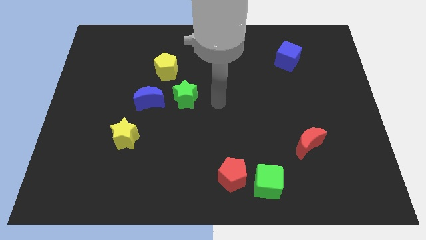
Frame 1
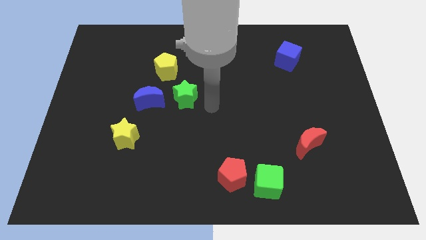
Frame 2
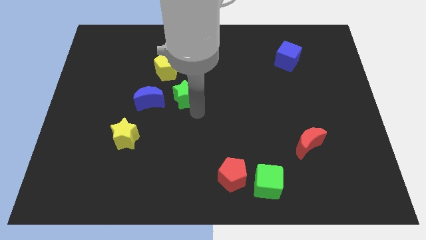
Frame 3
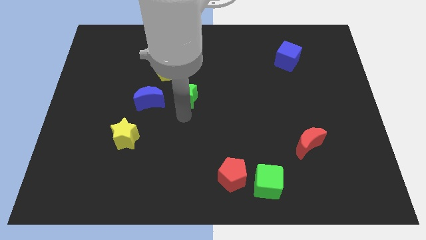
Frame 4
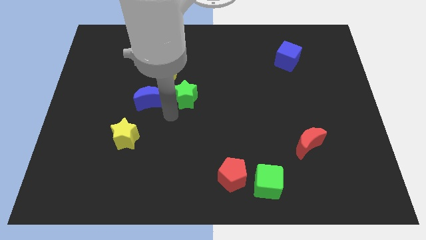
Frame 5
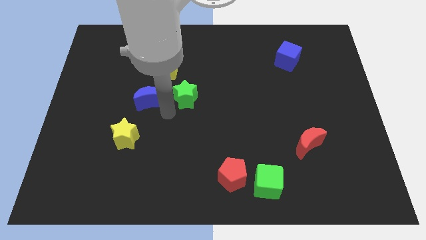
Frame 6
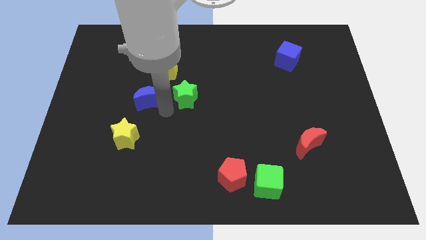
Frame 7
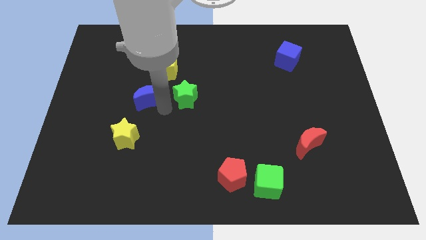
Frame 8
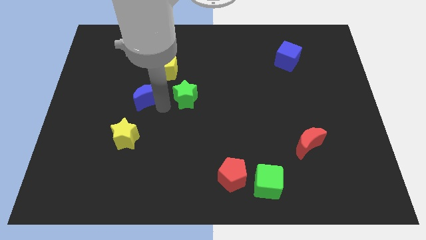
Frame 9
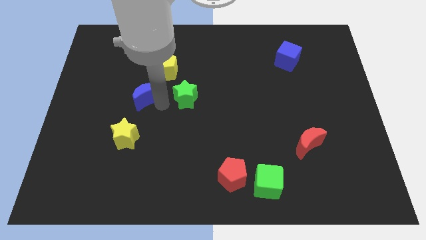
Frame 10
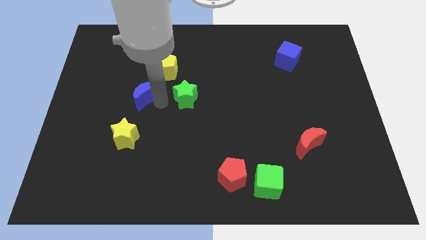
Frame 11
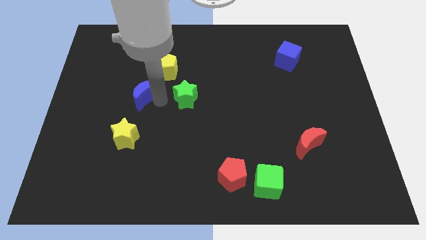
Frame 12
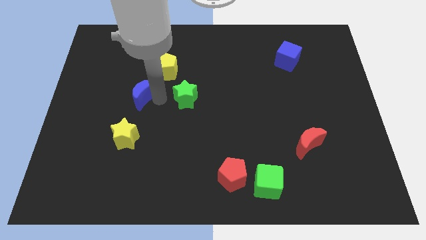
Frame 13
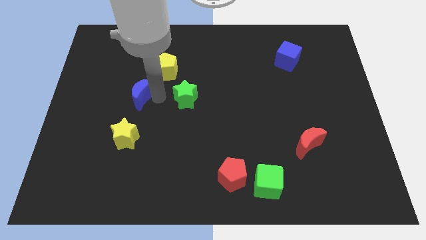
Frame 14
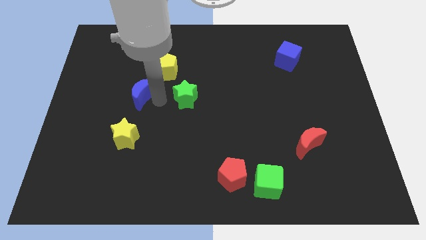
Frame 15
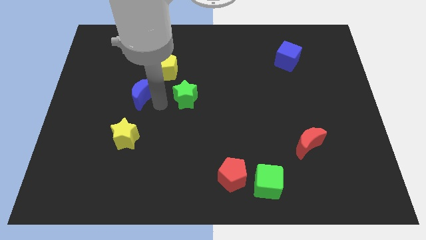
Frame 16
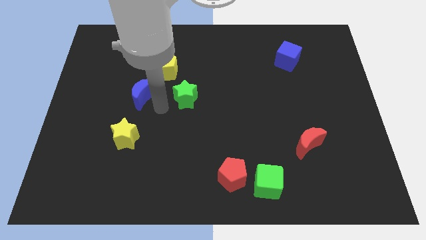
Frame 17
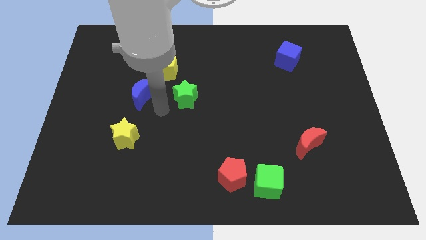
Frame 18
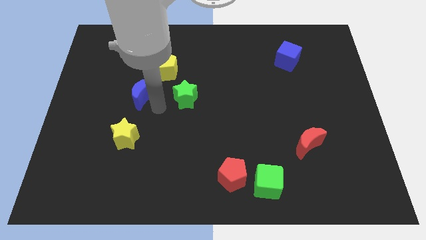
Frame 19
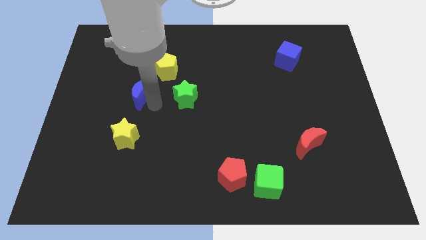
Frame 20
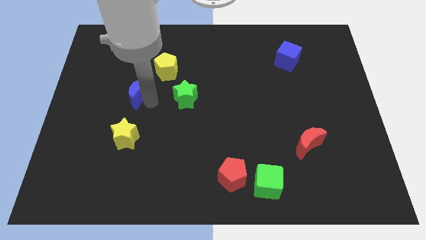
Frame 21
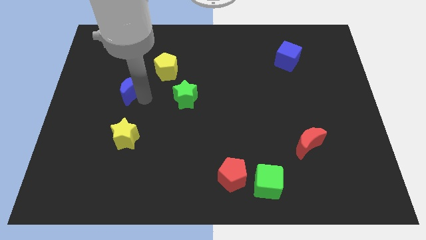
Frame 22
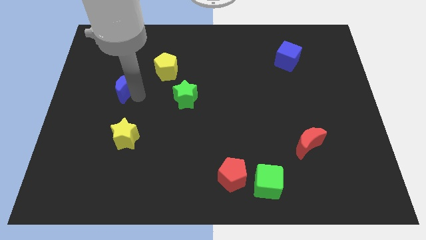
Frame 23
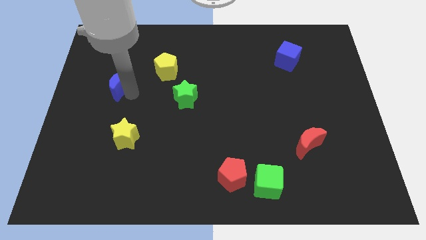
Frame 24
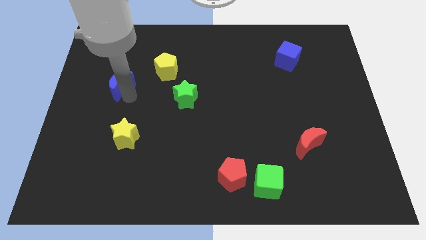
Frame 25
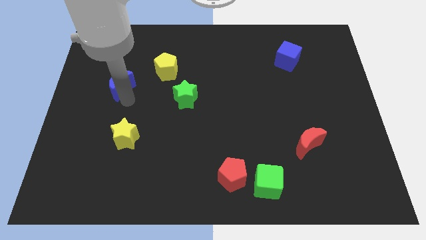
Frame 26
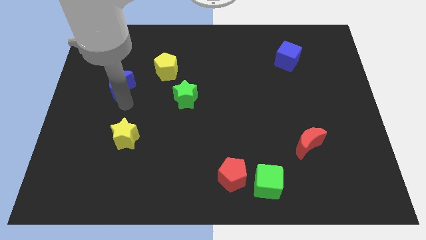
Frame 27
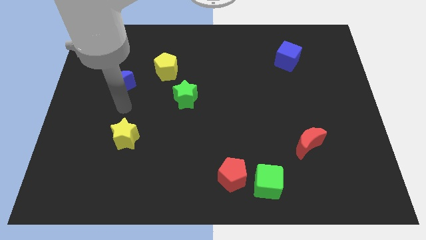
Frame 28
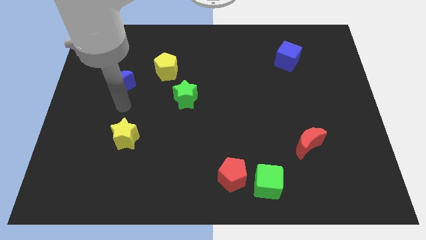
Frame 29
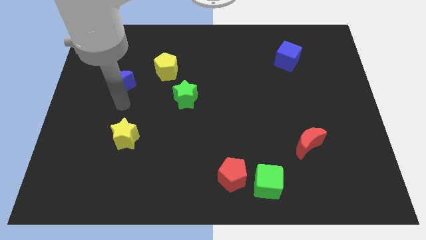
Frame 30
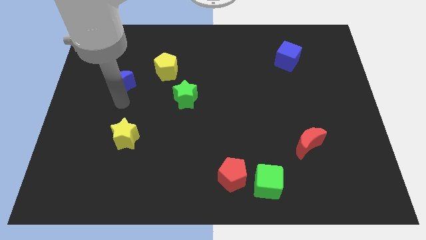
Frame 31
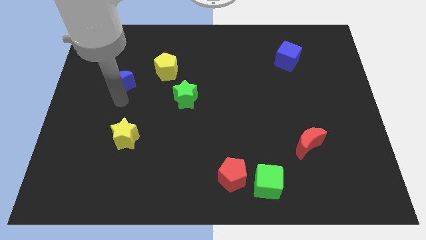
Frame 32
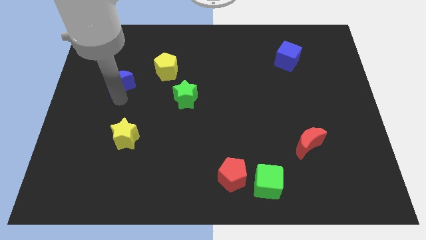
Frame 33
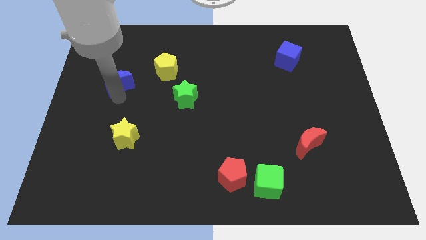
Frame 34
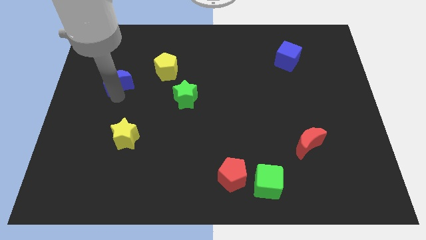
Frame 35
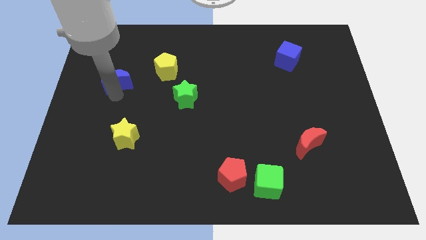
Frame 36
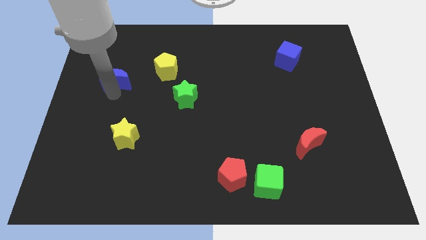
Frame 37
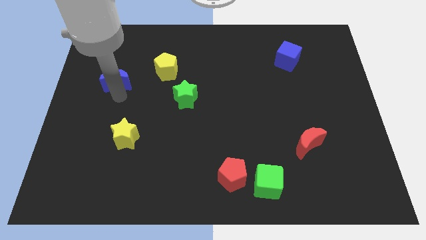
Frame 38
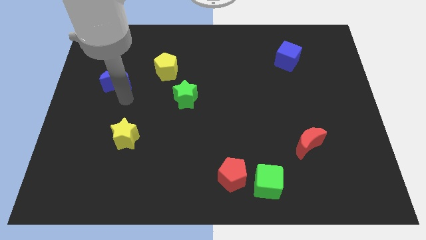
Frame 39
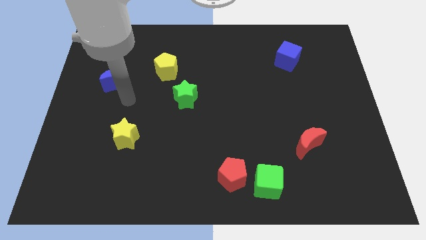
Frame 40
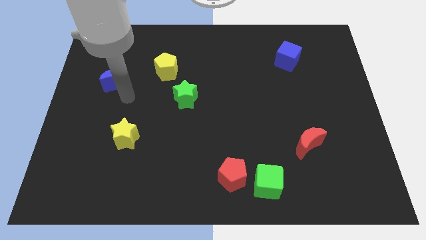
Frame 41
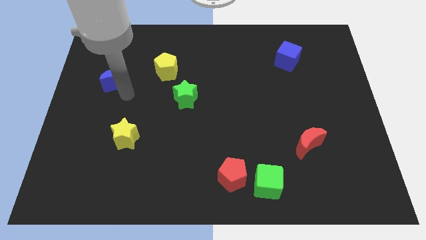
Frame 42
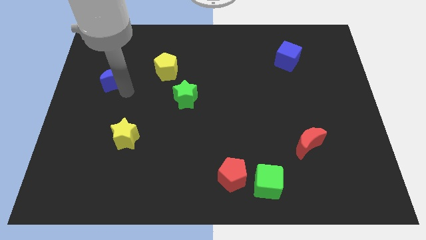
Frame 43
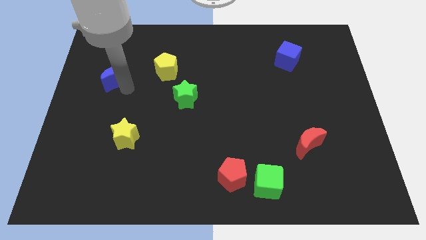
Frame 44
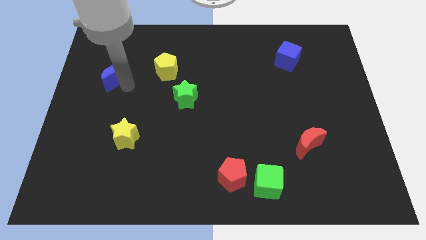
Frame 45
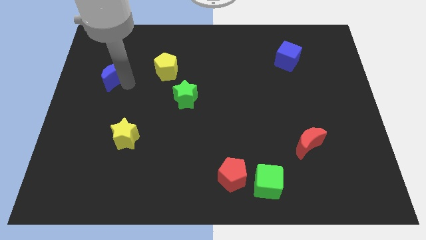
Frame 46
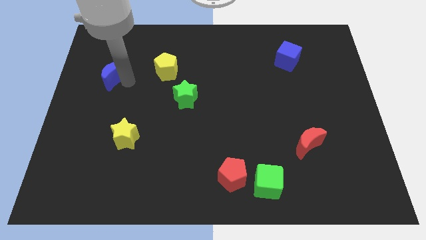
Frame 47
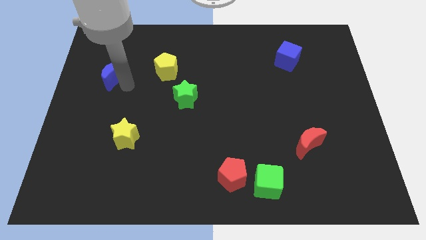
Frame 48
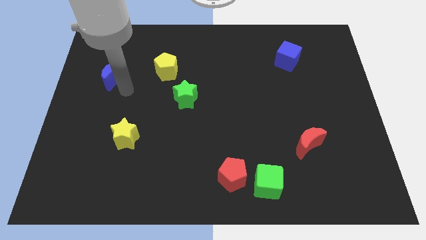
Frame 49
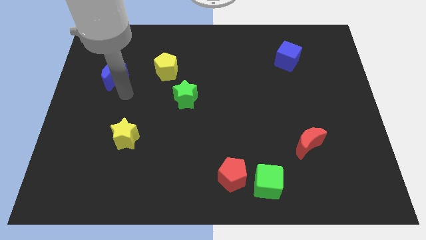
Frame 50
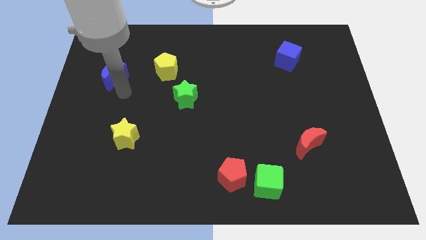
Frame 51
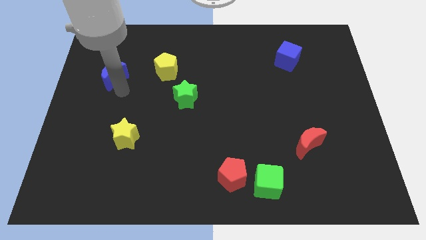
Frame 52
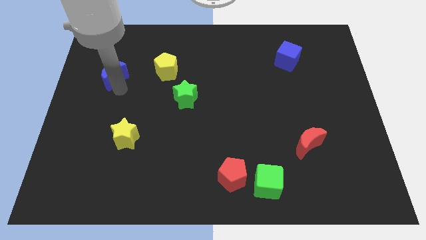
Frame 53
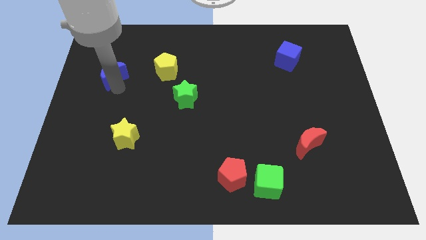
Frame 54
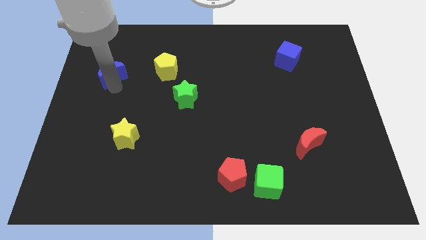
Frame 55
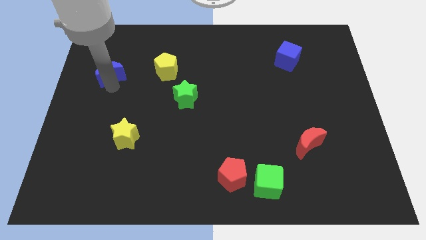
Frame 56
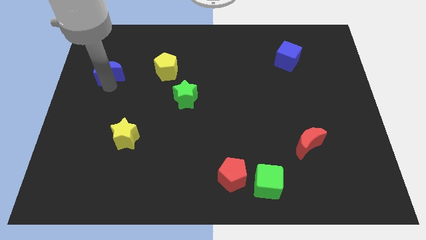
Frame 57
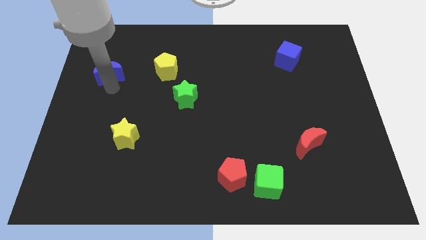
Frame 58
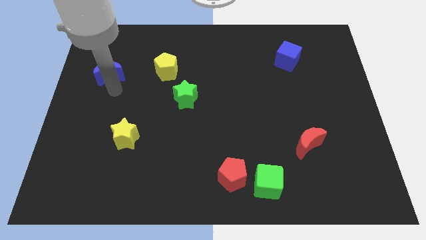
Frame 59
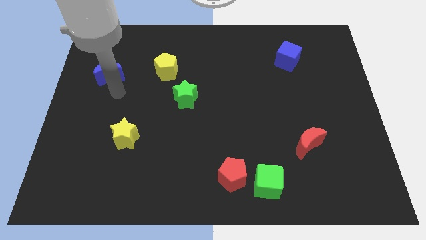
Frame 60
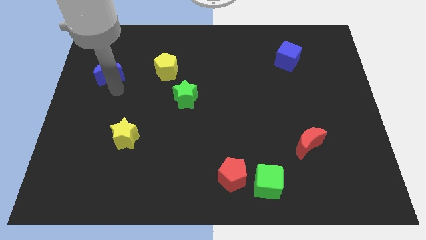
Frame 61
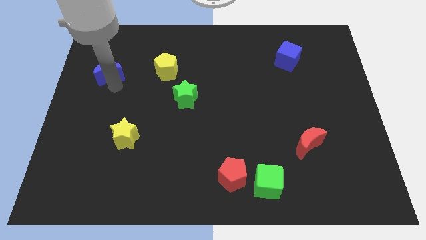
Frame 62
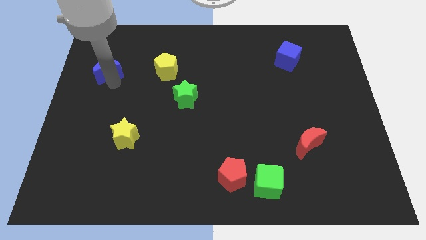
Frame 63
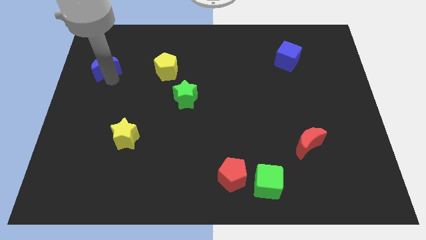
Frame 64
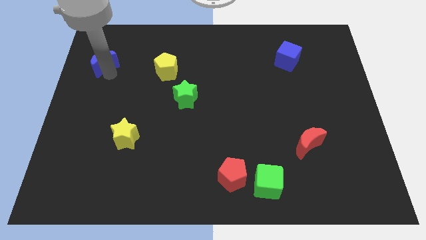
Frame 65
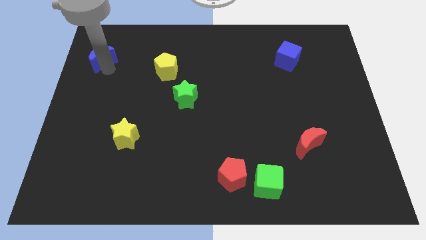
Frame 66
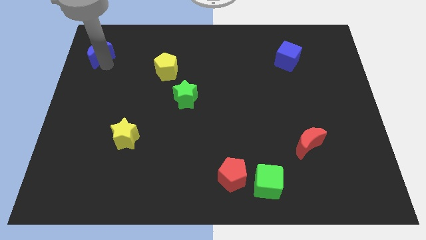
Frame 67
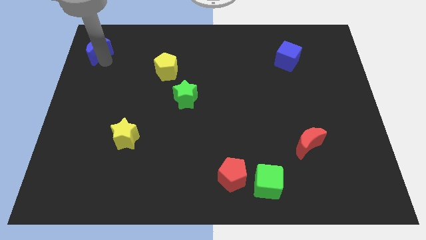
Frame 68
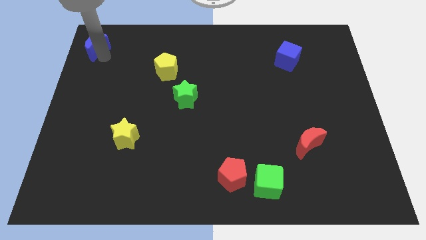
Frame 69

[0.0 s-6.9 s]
push the blue moon to the upper left corner
